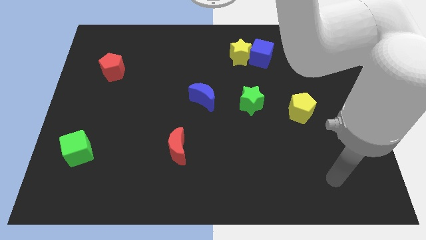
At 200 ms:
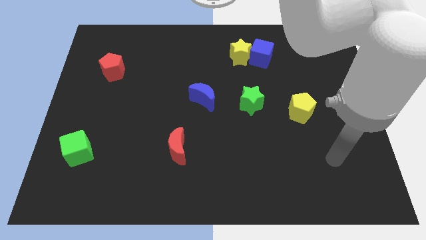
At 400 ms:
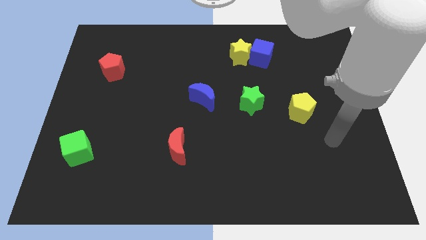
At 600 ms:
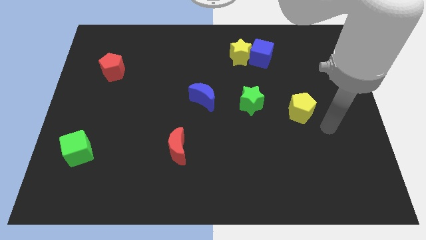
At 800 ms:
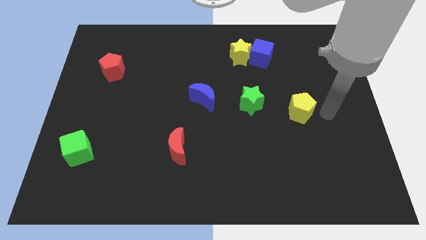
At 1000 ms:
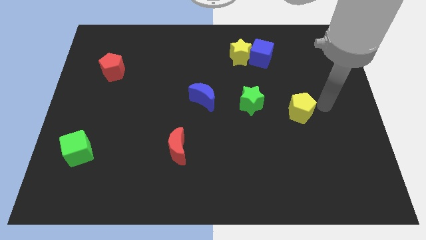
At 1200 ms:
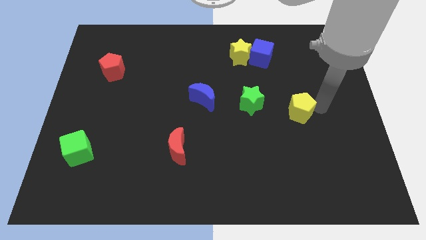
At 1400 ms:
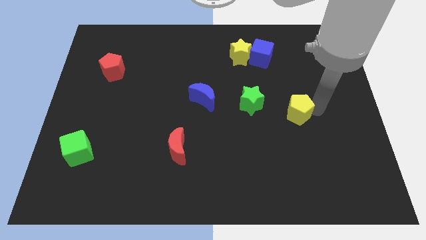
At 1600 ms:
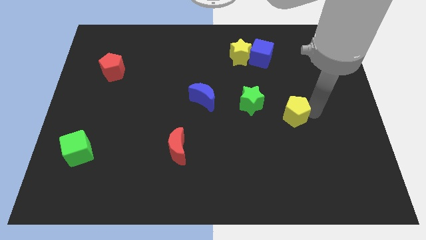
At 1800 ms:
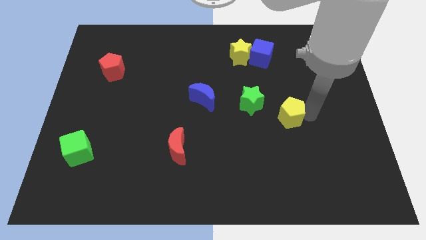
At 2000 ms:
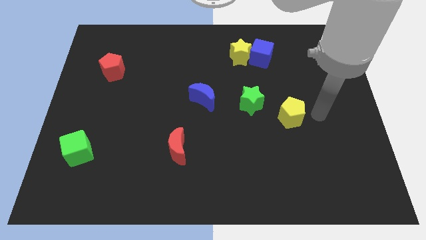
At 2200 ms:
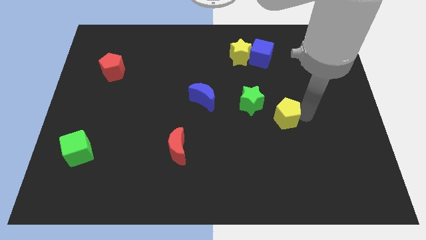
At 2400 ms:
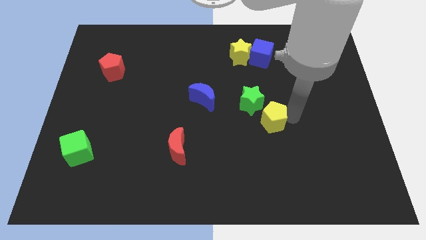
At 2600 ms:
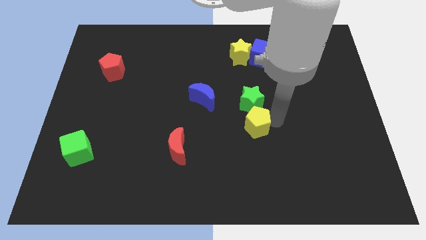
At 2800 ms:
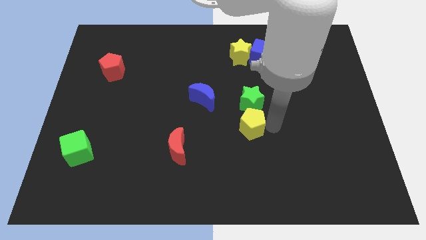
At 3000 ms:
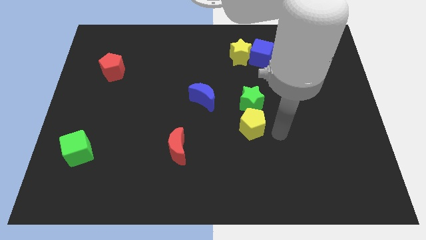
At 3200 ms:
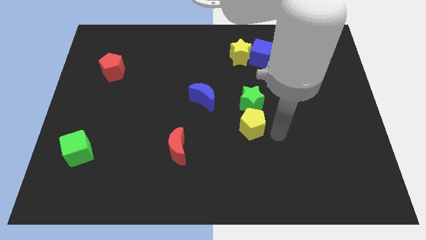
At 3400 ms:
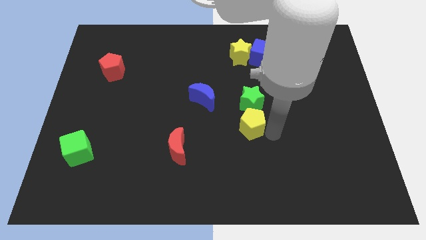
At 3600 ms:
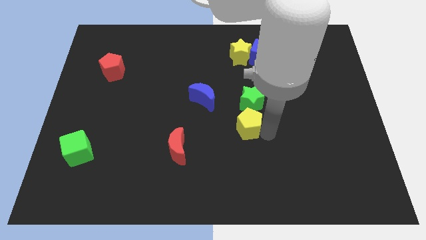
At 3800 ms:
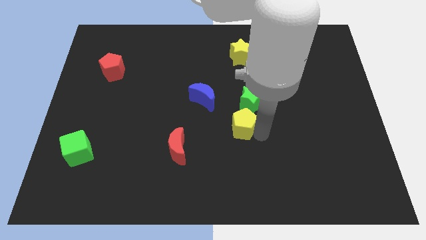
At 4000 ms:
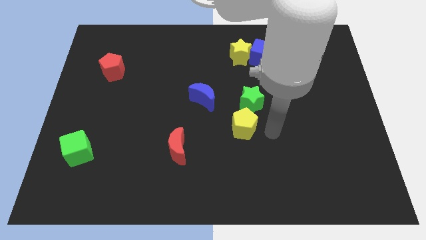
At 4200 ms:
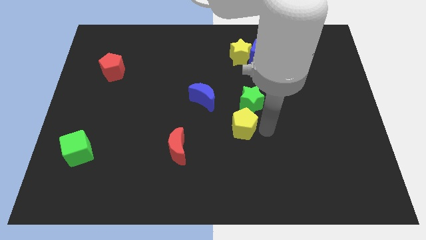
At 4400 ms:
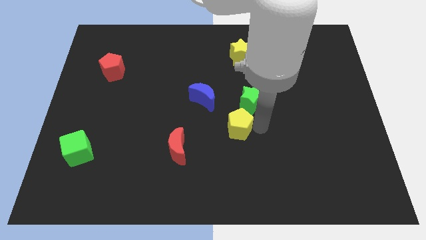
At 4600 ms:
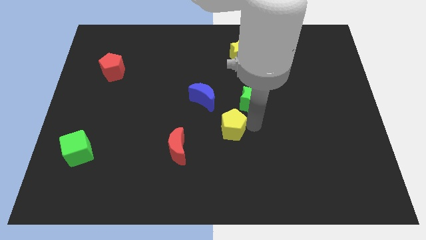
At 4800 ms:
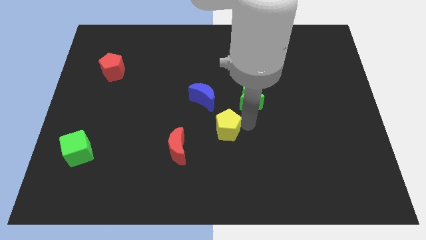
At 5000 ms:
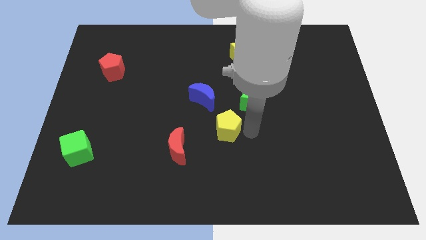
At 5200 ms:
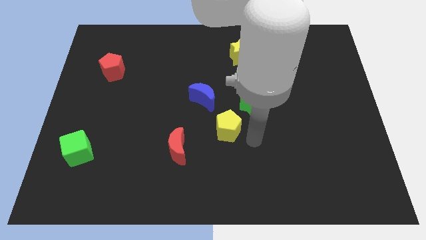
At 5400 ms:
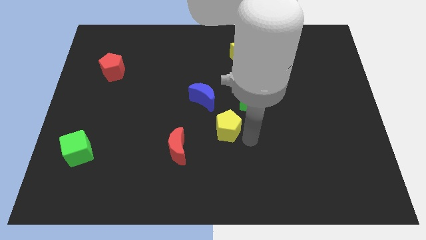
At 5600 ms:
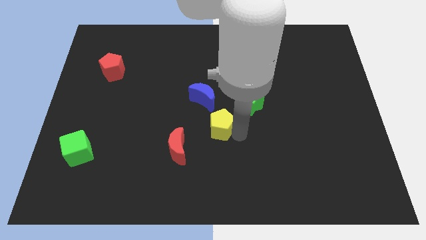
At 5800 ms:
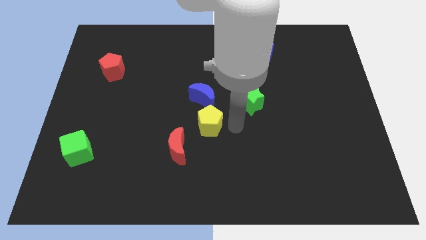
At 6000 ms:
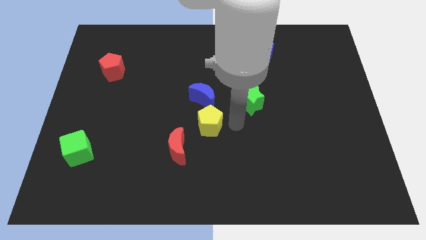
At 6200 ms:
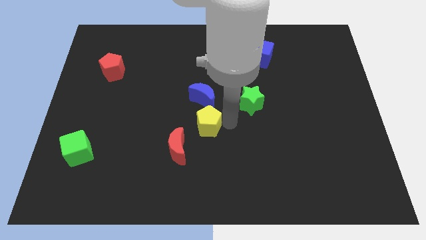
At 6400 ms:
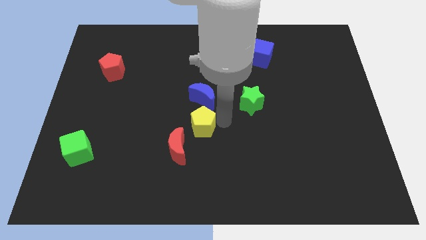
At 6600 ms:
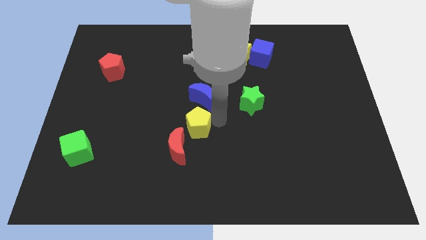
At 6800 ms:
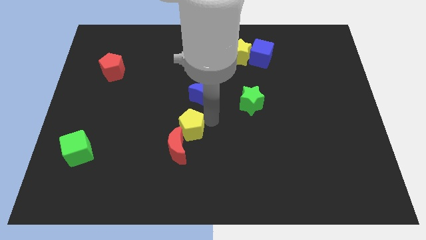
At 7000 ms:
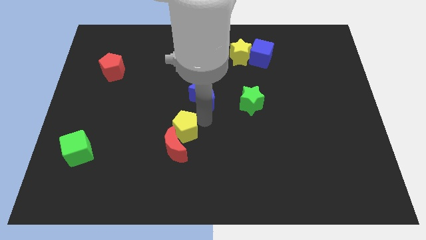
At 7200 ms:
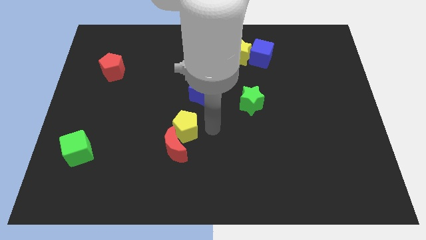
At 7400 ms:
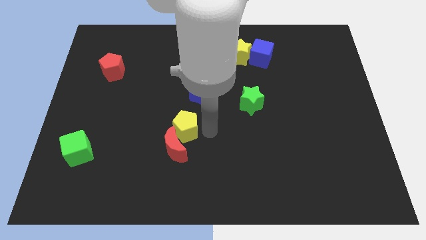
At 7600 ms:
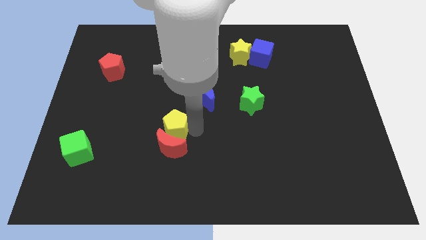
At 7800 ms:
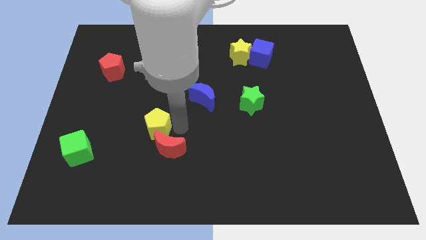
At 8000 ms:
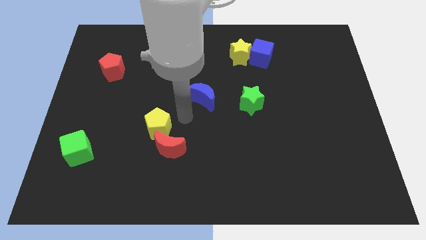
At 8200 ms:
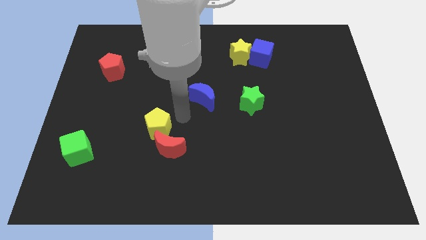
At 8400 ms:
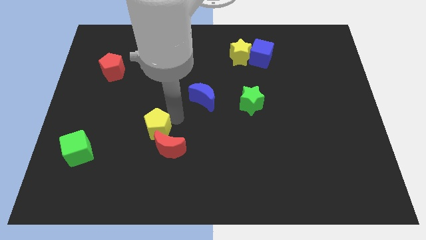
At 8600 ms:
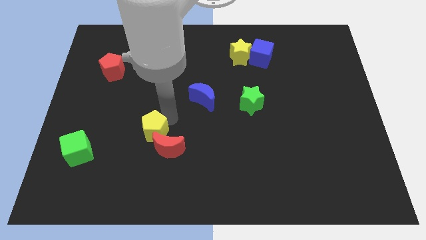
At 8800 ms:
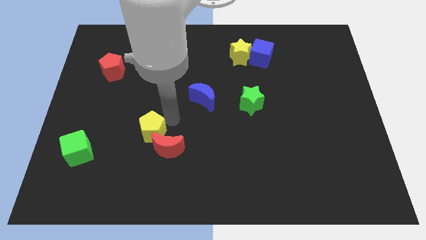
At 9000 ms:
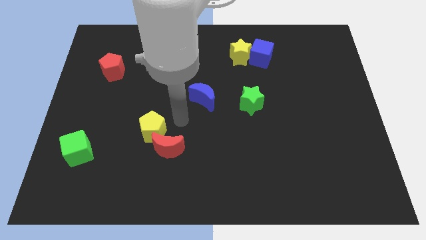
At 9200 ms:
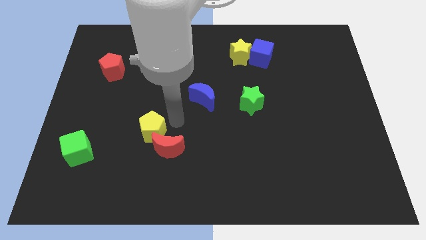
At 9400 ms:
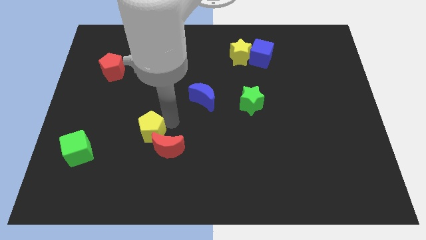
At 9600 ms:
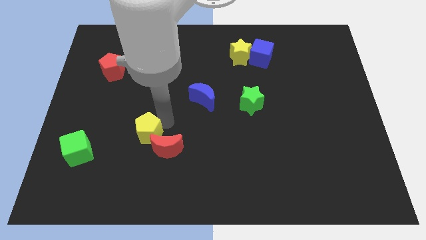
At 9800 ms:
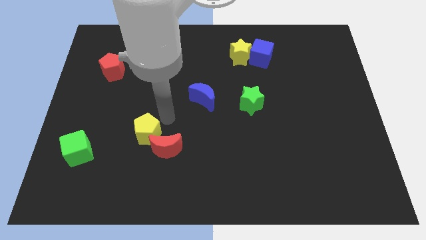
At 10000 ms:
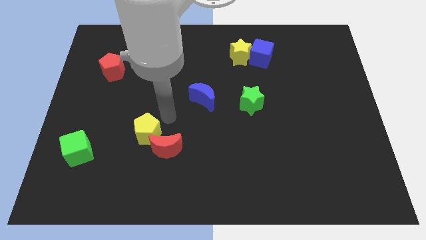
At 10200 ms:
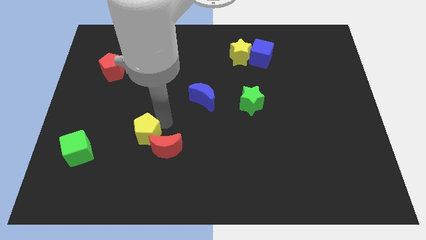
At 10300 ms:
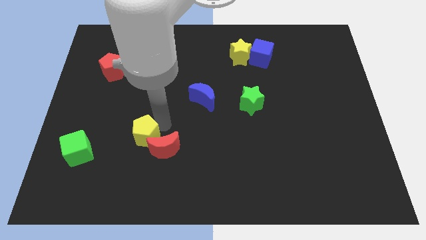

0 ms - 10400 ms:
push the yellow pentagon to the right of the green cube

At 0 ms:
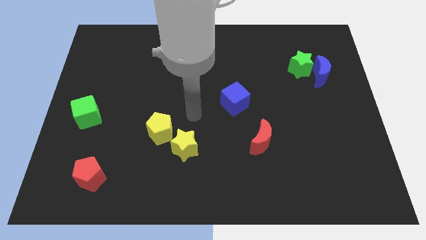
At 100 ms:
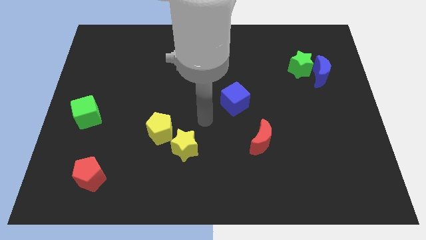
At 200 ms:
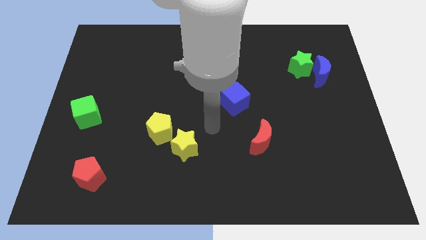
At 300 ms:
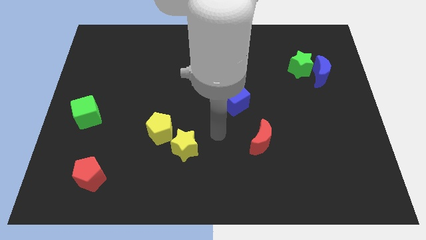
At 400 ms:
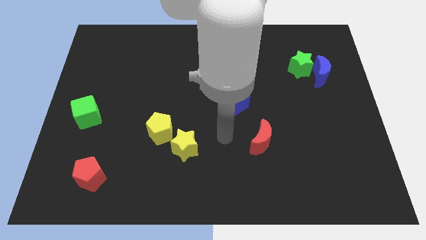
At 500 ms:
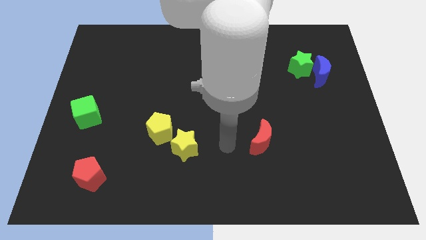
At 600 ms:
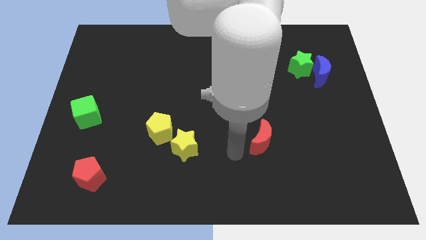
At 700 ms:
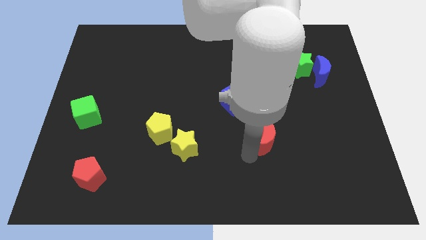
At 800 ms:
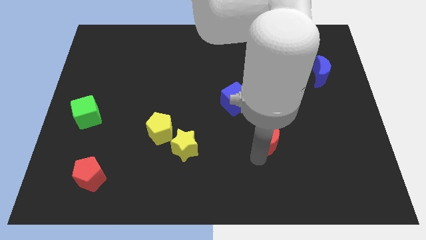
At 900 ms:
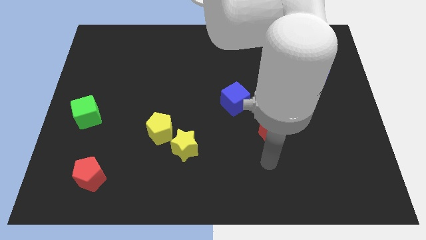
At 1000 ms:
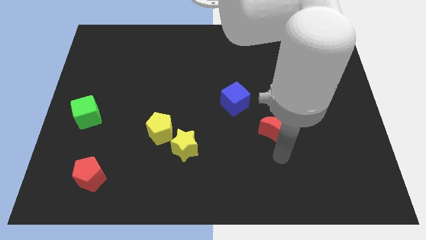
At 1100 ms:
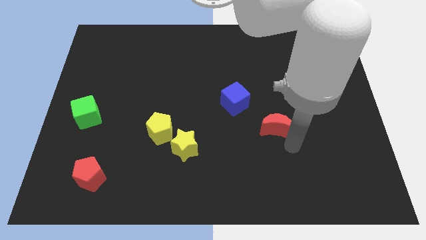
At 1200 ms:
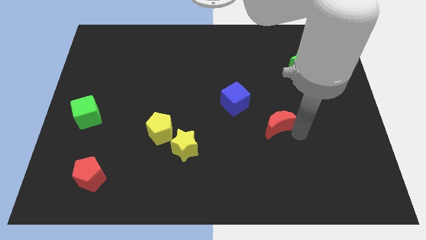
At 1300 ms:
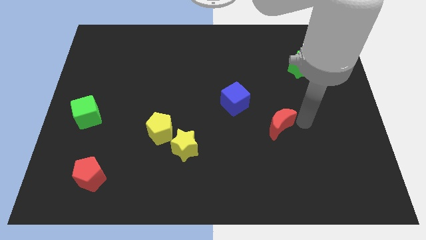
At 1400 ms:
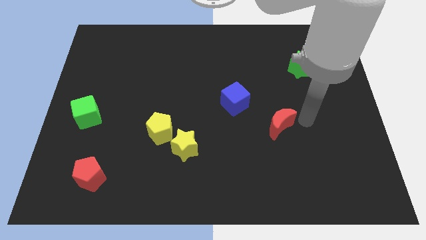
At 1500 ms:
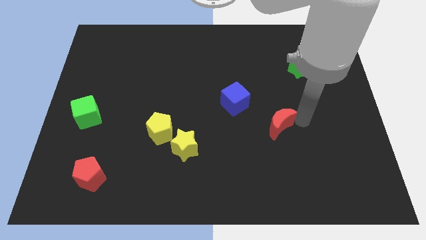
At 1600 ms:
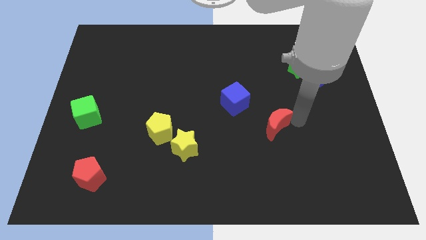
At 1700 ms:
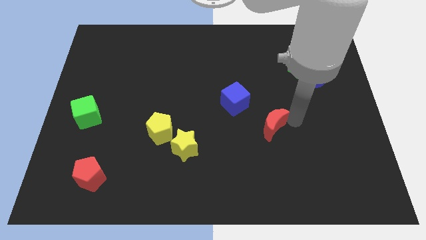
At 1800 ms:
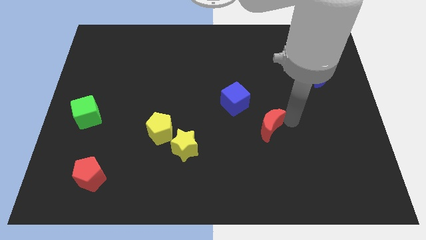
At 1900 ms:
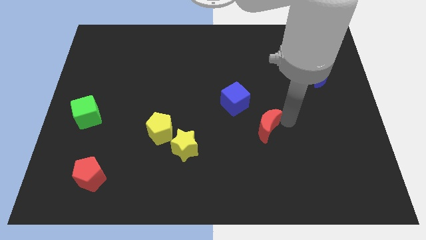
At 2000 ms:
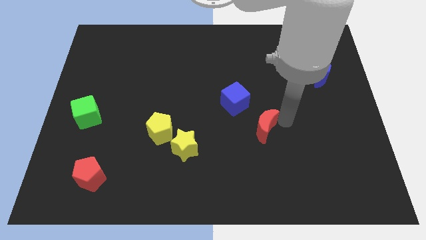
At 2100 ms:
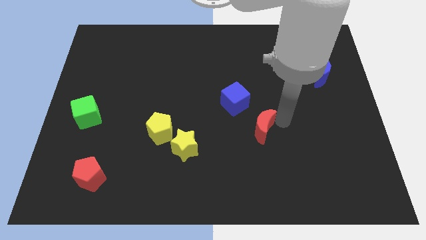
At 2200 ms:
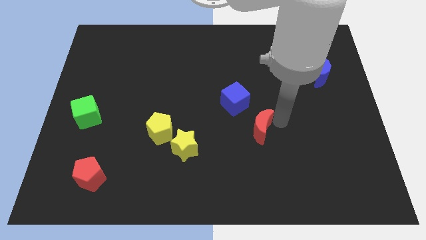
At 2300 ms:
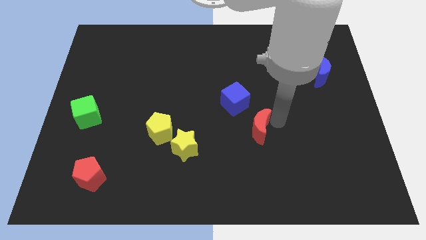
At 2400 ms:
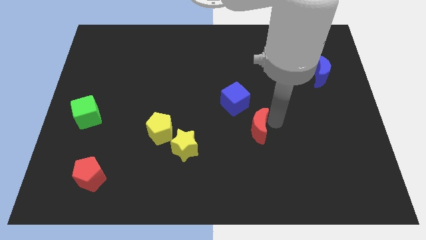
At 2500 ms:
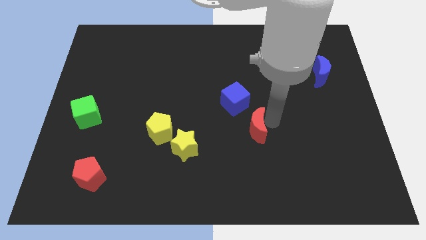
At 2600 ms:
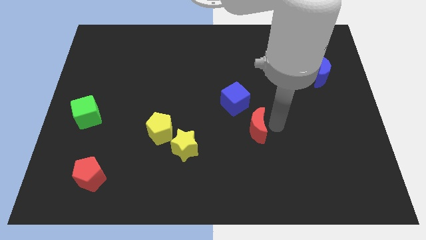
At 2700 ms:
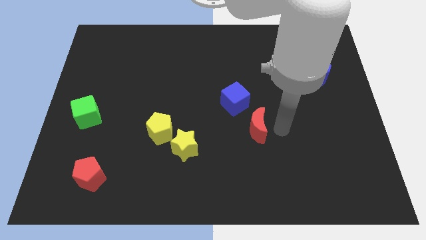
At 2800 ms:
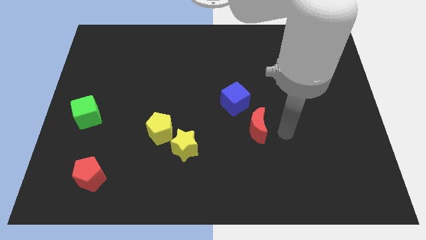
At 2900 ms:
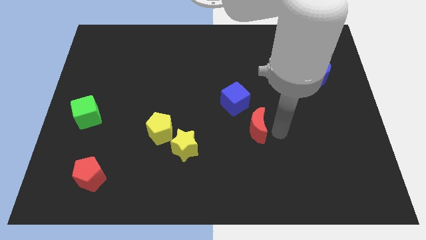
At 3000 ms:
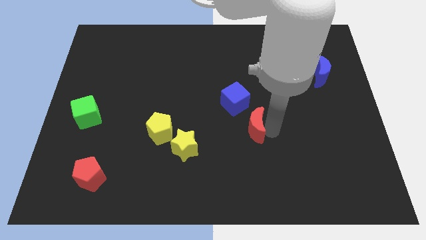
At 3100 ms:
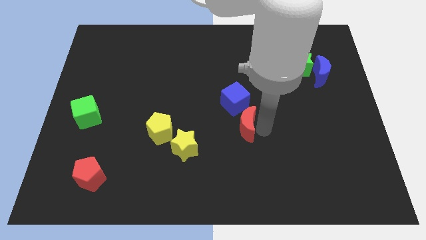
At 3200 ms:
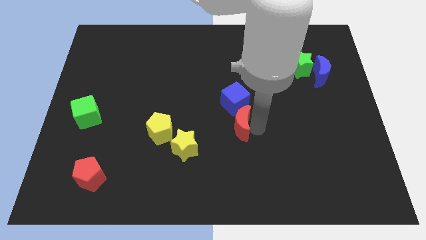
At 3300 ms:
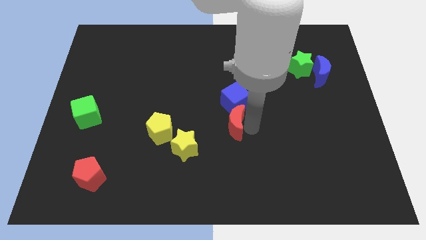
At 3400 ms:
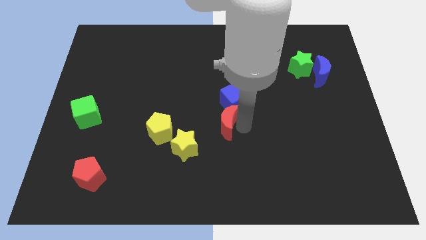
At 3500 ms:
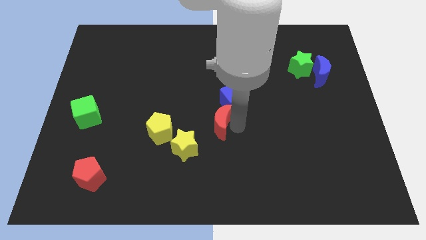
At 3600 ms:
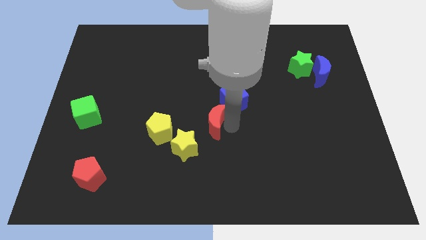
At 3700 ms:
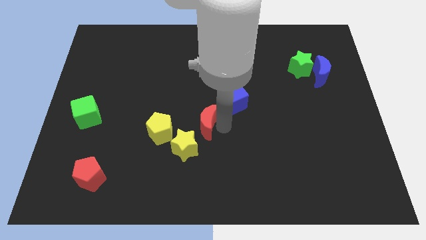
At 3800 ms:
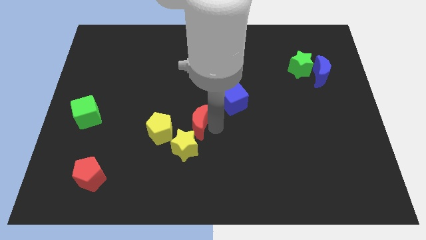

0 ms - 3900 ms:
move the red moon to the top right of the yellow pentagon
